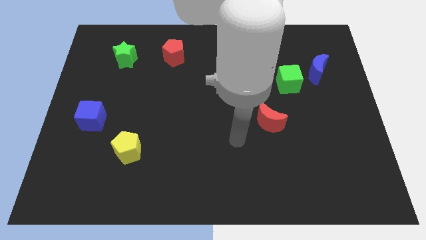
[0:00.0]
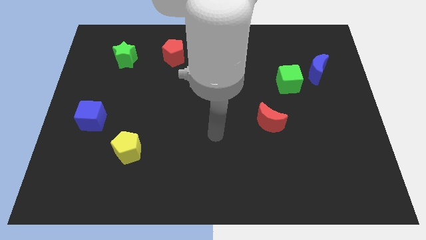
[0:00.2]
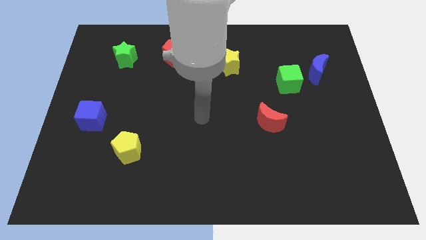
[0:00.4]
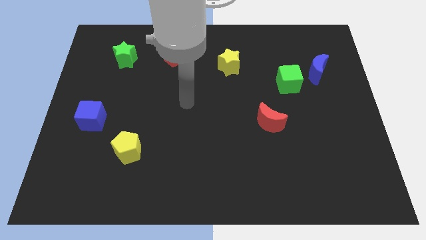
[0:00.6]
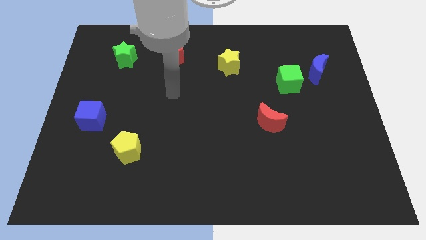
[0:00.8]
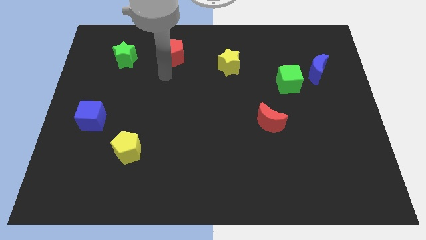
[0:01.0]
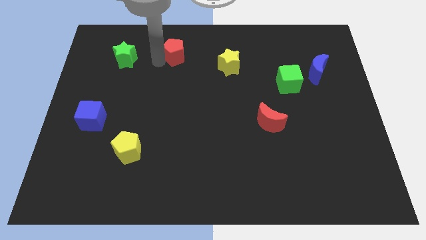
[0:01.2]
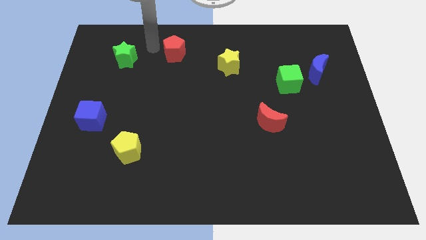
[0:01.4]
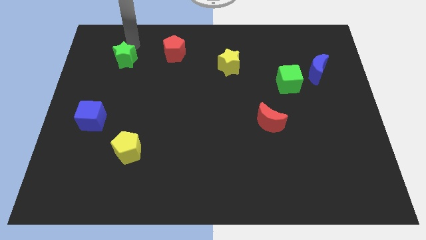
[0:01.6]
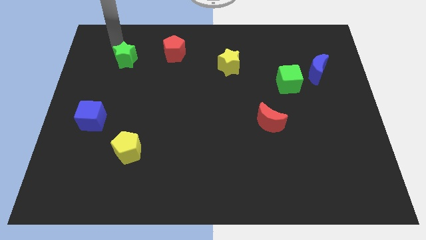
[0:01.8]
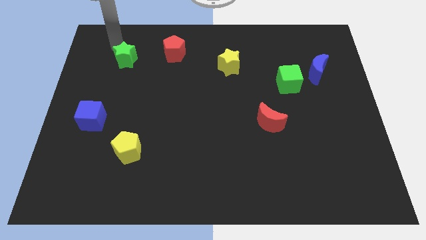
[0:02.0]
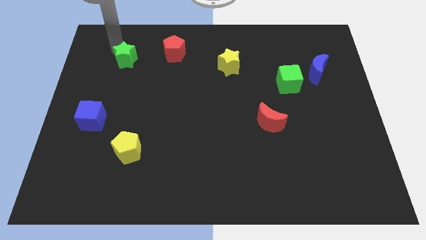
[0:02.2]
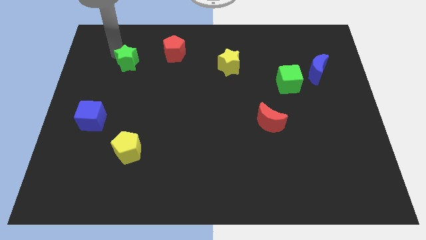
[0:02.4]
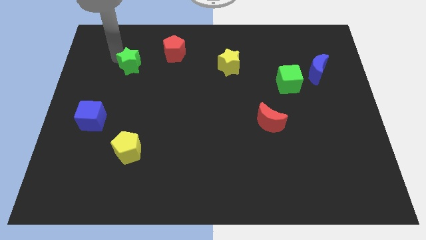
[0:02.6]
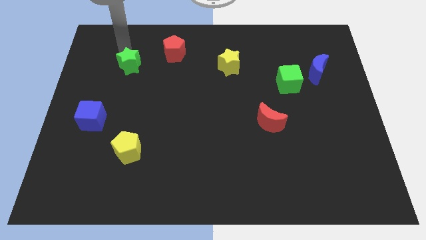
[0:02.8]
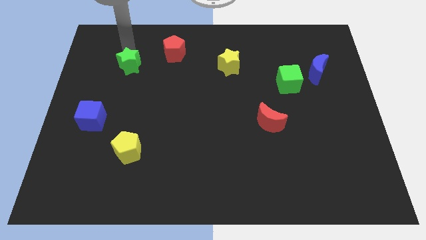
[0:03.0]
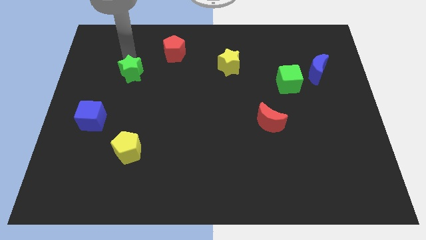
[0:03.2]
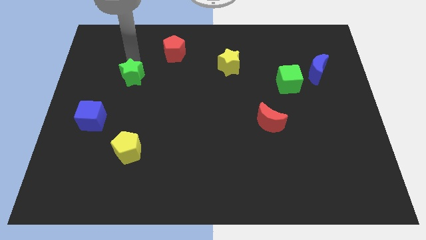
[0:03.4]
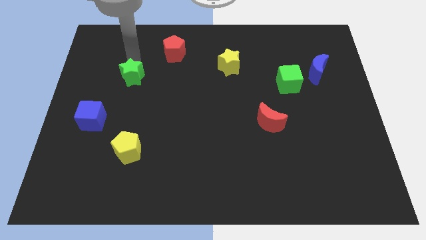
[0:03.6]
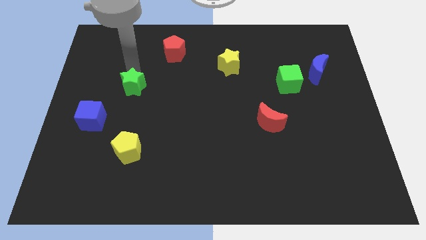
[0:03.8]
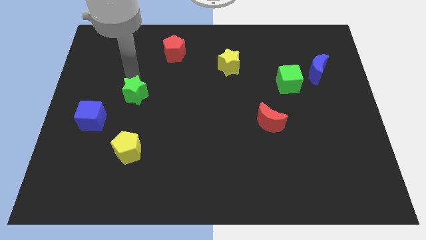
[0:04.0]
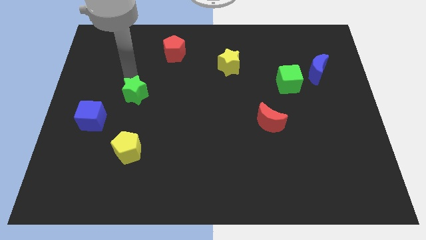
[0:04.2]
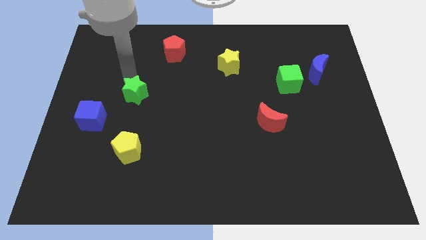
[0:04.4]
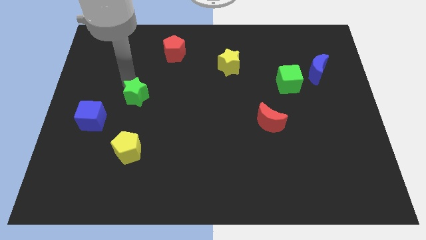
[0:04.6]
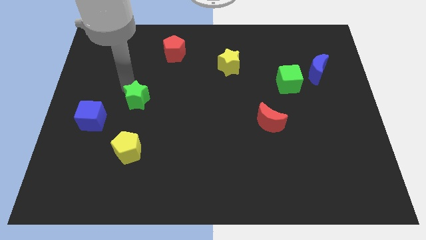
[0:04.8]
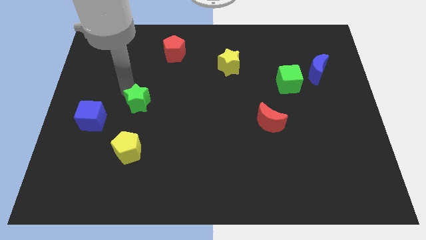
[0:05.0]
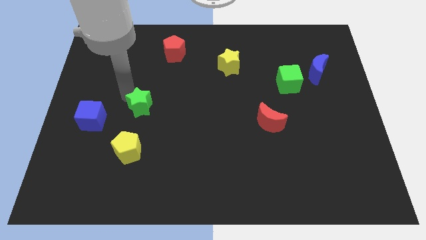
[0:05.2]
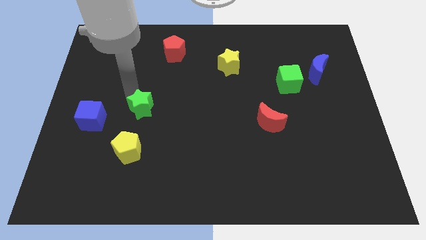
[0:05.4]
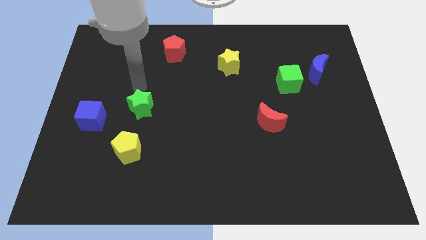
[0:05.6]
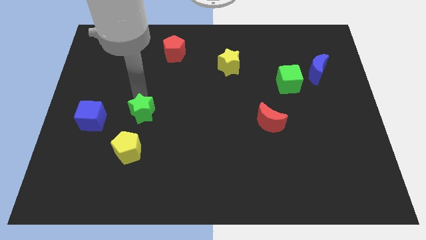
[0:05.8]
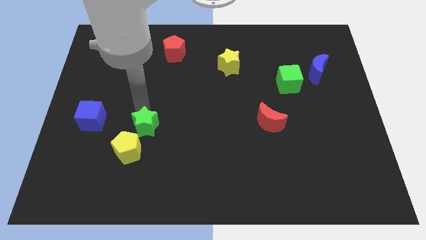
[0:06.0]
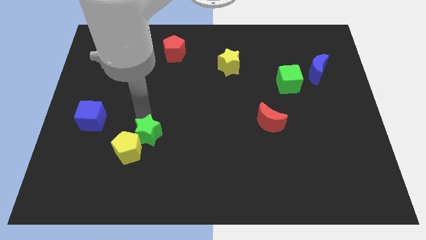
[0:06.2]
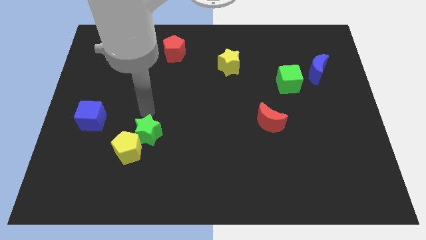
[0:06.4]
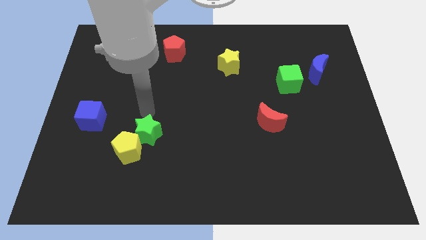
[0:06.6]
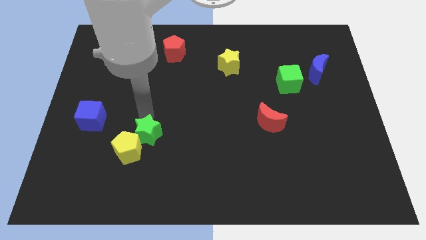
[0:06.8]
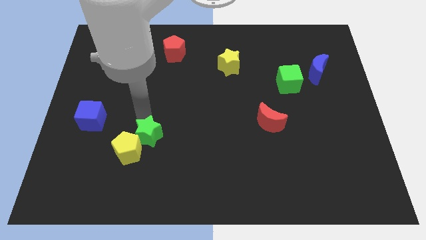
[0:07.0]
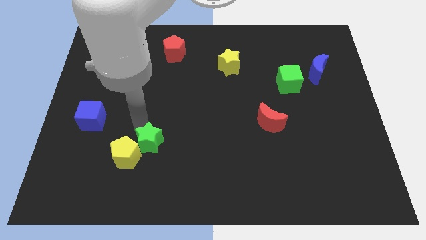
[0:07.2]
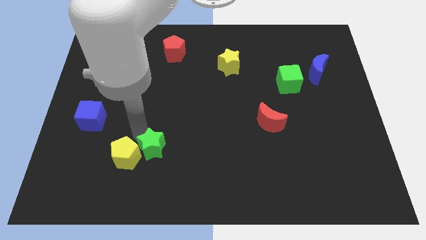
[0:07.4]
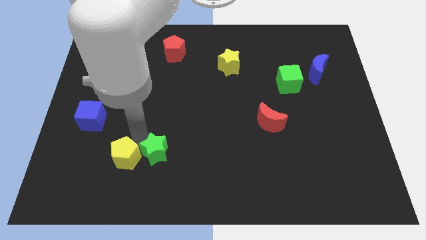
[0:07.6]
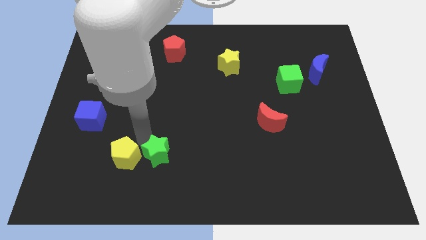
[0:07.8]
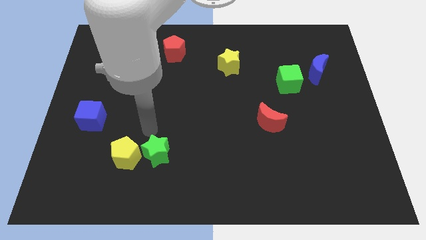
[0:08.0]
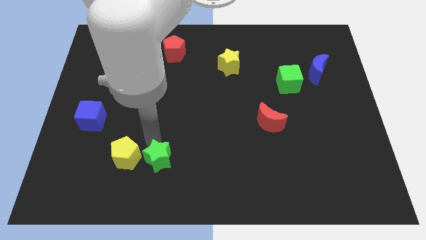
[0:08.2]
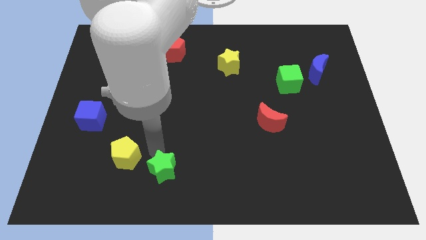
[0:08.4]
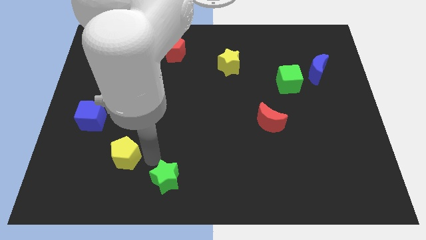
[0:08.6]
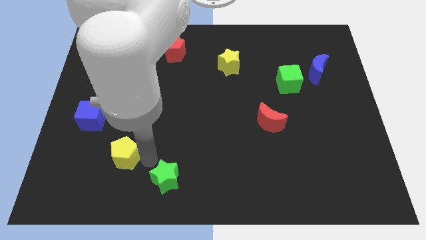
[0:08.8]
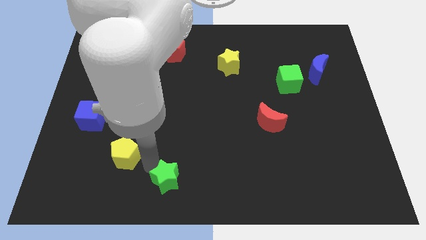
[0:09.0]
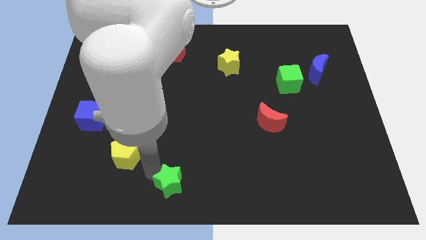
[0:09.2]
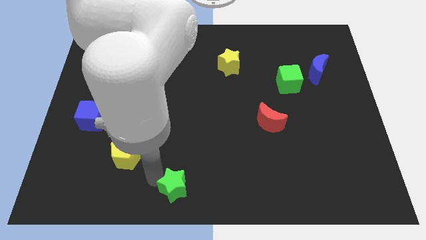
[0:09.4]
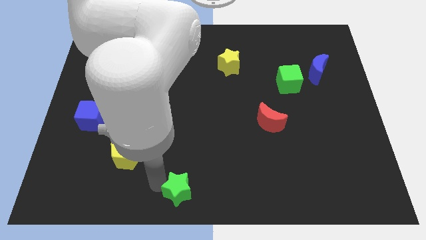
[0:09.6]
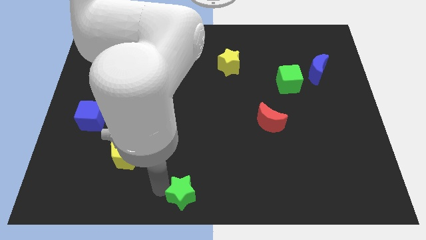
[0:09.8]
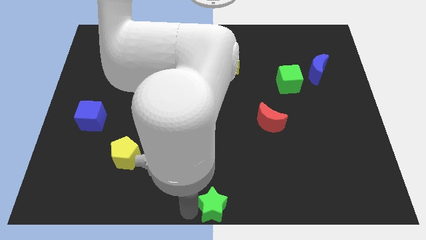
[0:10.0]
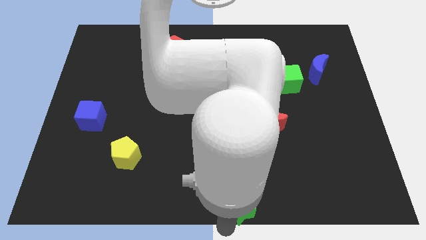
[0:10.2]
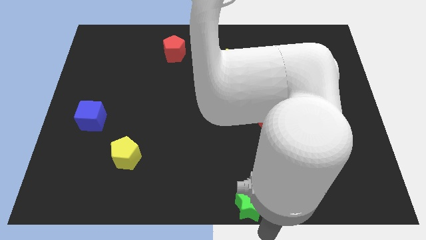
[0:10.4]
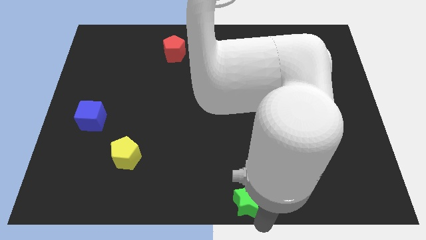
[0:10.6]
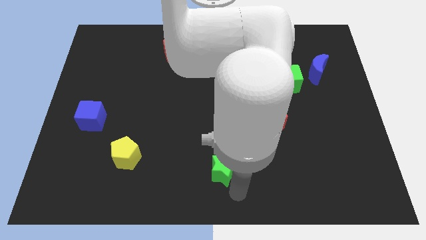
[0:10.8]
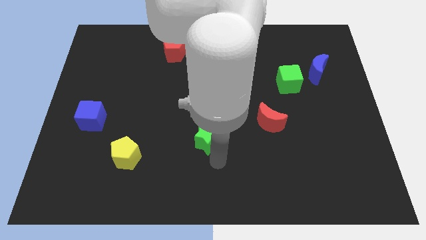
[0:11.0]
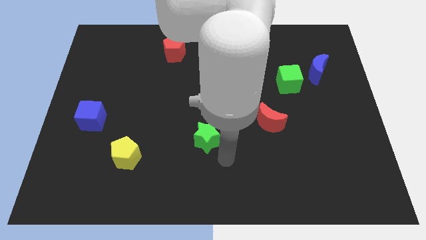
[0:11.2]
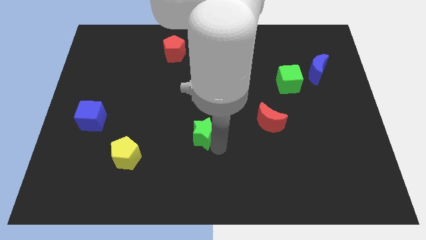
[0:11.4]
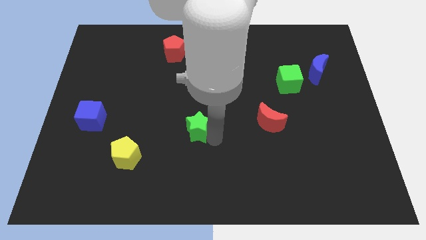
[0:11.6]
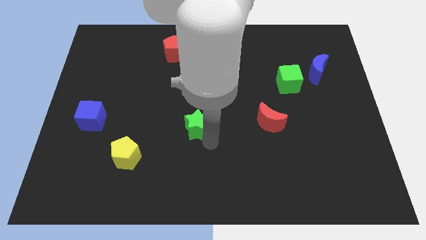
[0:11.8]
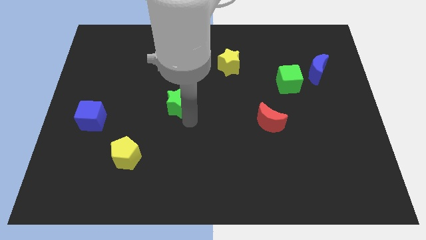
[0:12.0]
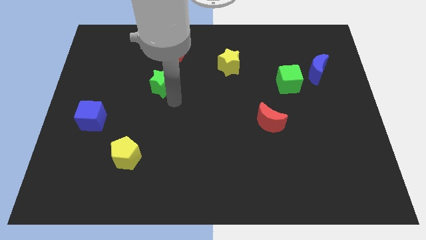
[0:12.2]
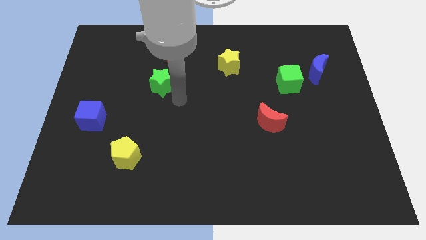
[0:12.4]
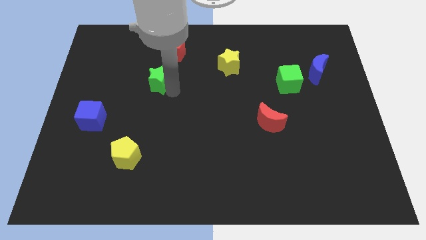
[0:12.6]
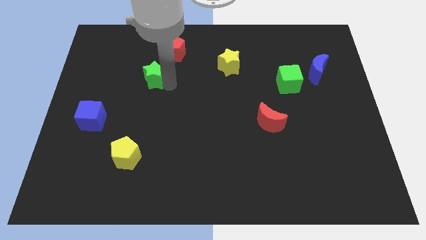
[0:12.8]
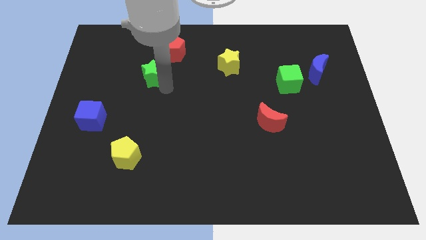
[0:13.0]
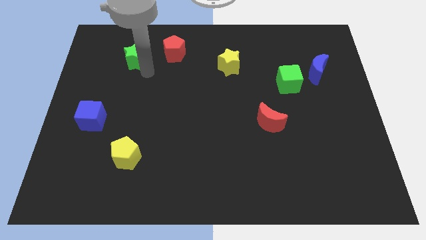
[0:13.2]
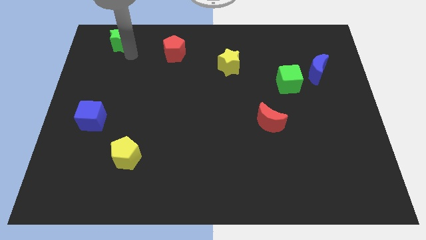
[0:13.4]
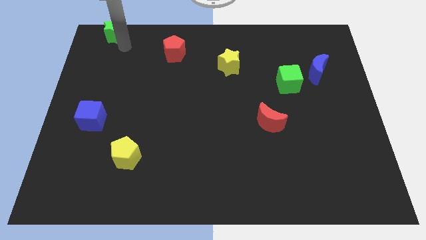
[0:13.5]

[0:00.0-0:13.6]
move the green star to the upper left corner
